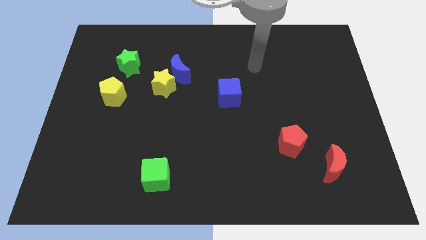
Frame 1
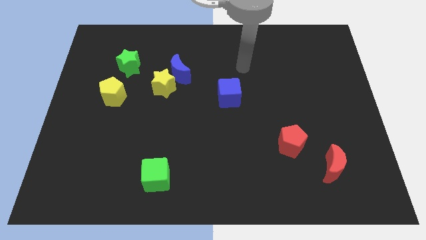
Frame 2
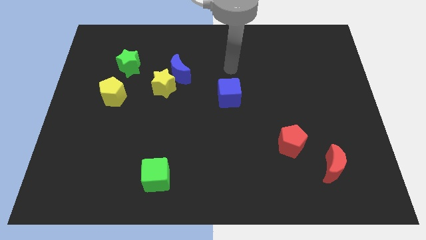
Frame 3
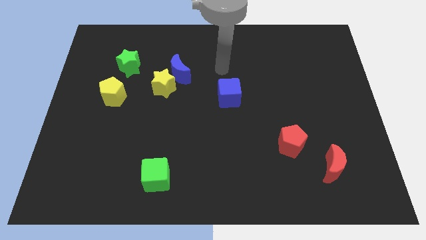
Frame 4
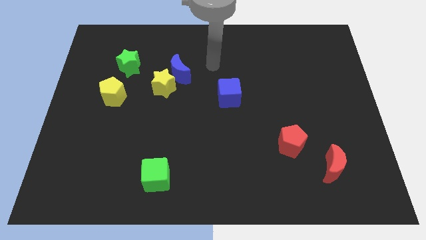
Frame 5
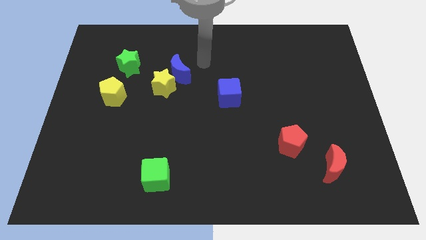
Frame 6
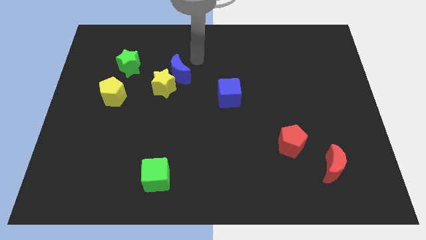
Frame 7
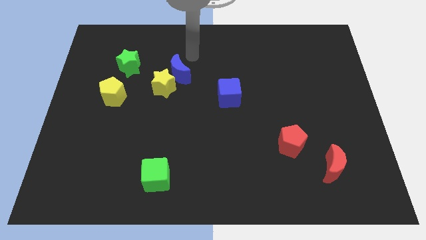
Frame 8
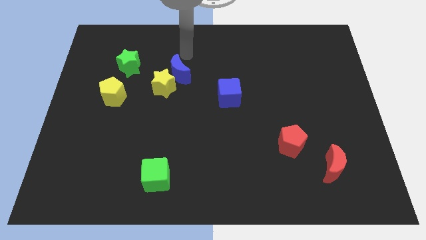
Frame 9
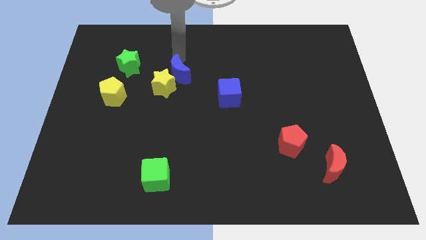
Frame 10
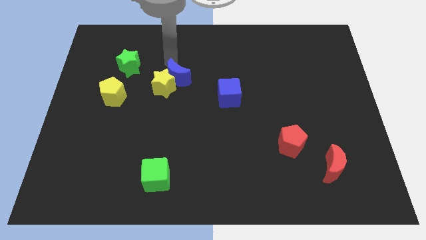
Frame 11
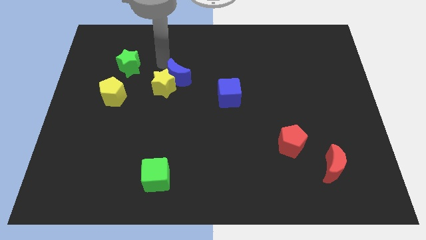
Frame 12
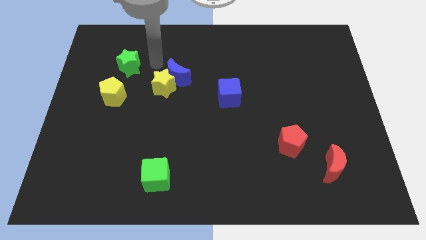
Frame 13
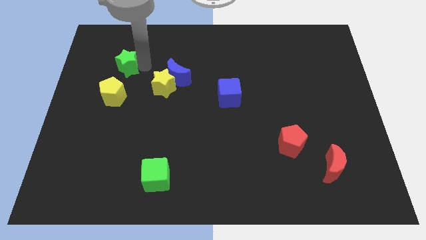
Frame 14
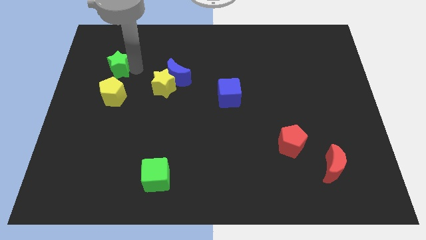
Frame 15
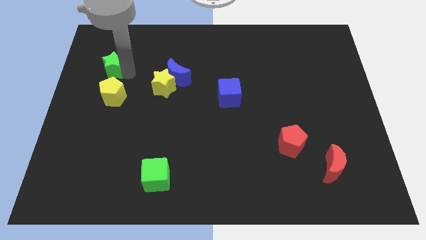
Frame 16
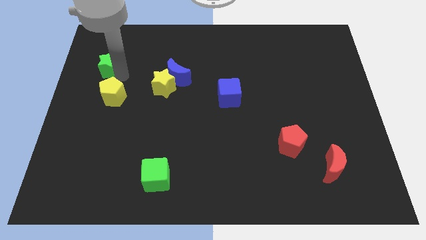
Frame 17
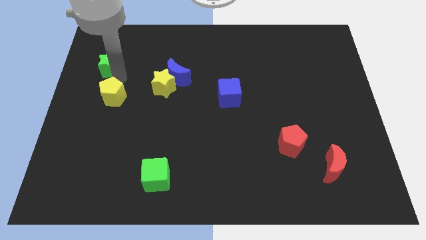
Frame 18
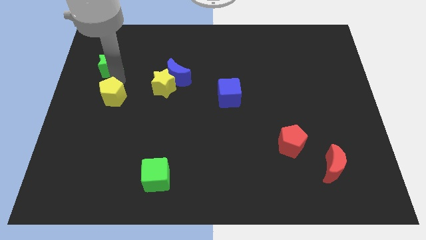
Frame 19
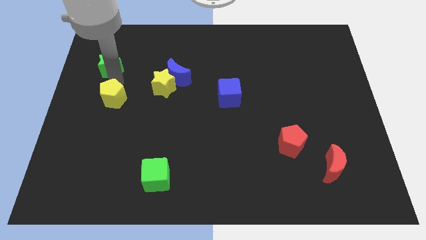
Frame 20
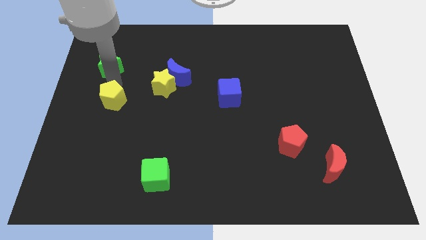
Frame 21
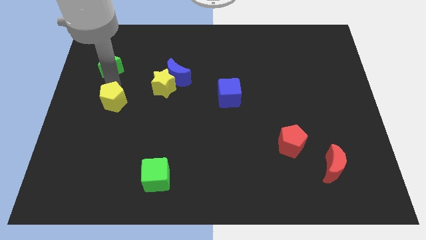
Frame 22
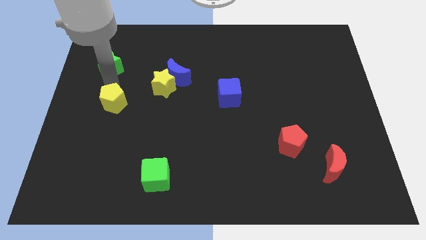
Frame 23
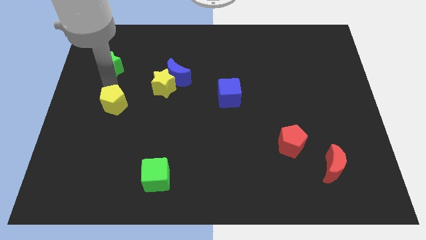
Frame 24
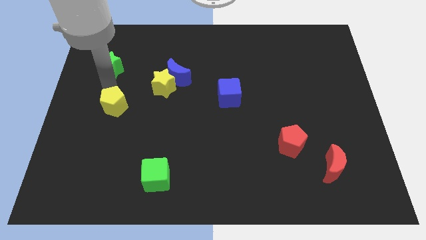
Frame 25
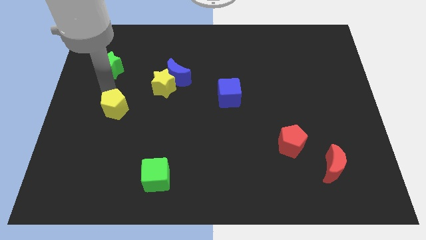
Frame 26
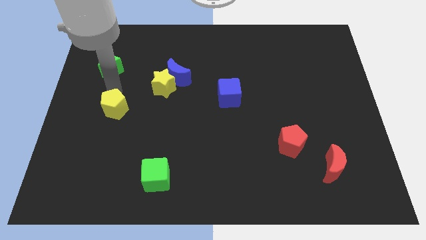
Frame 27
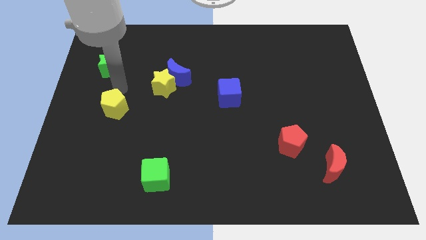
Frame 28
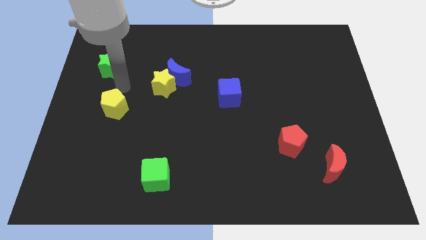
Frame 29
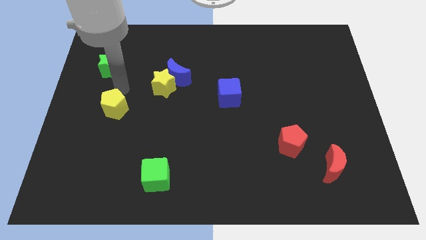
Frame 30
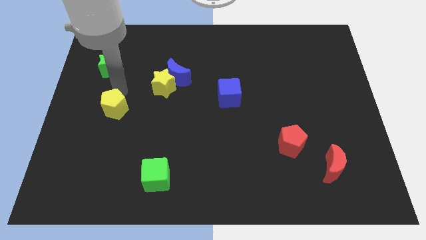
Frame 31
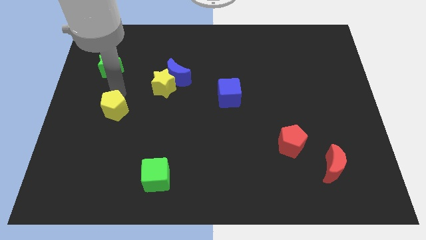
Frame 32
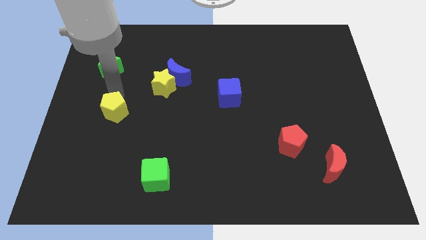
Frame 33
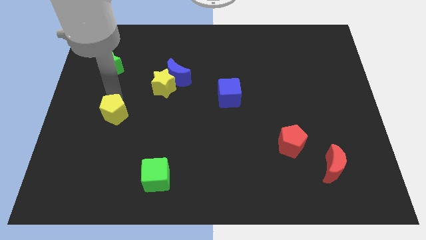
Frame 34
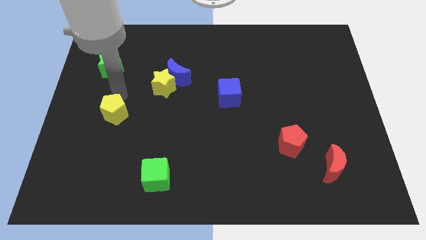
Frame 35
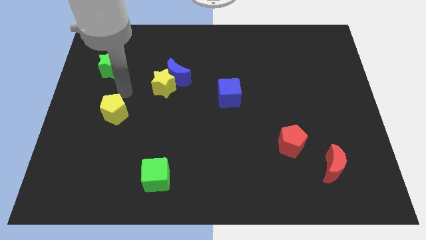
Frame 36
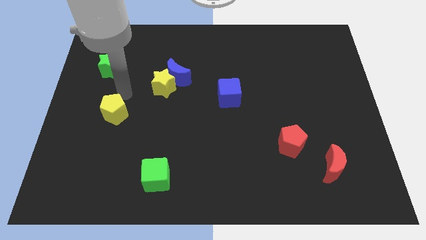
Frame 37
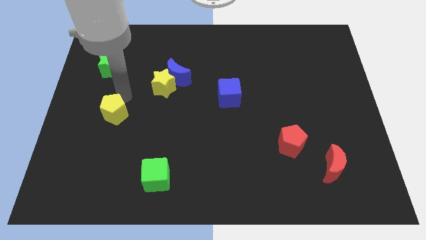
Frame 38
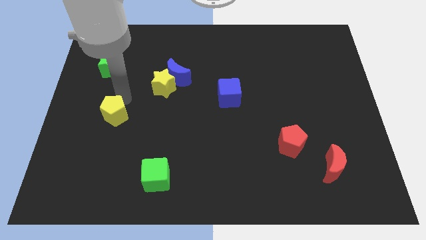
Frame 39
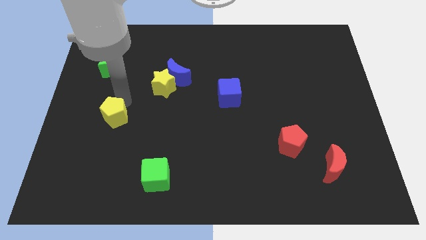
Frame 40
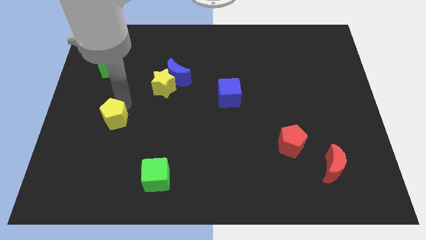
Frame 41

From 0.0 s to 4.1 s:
push the yellow pentagon down a little bit

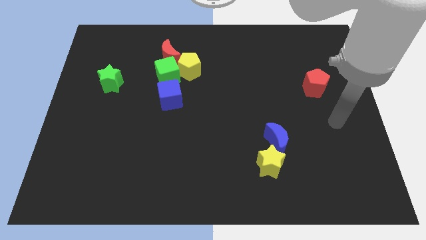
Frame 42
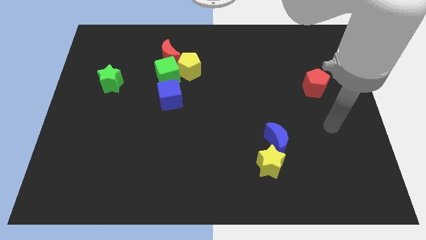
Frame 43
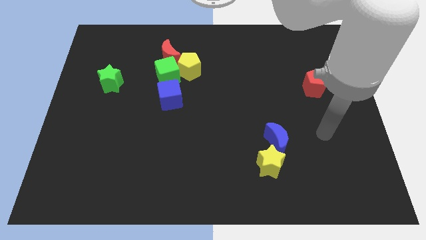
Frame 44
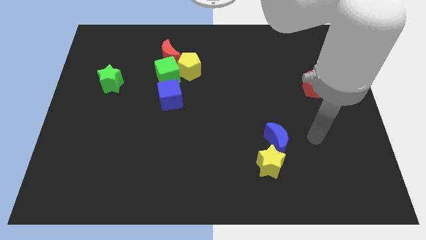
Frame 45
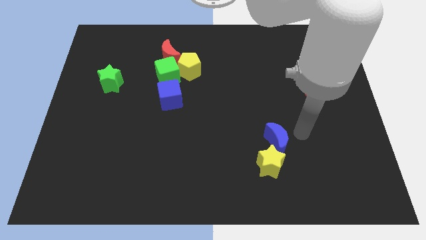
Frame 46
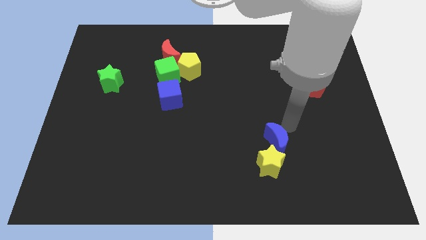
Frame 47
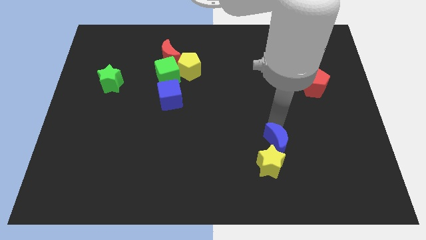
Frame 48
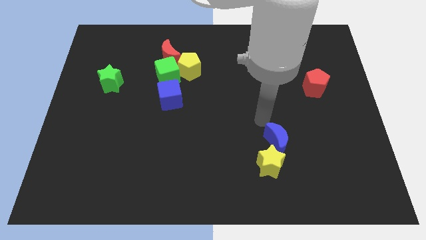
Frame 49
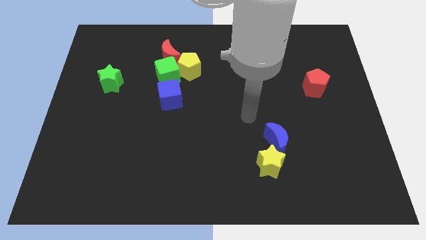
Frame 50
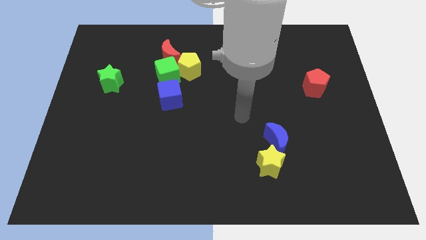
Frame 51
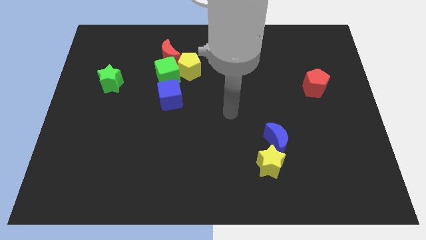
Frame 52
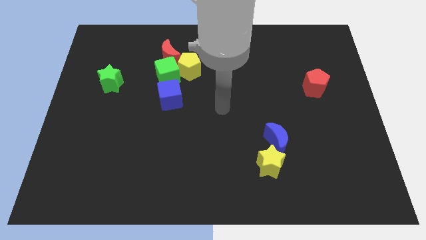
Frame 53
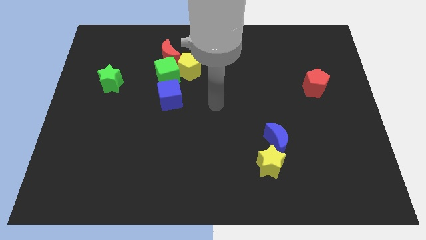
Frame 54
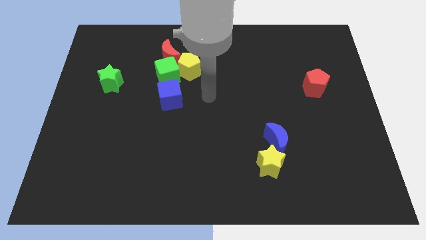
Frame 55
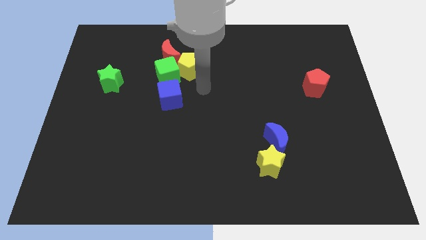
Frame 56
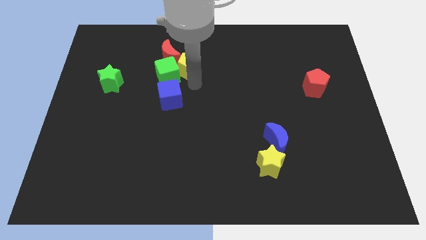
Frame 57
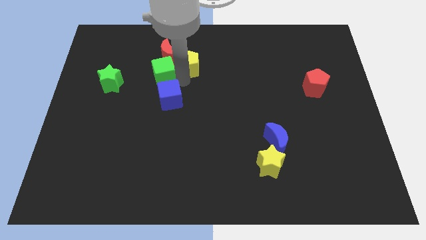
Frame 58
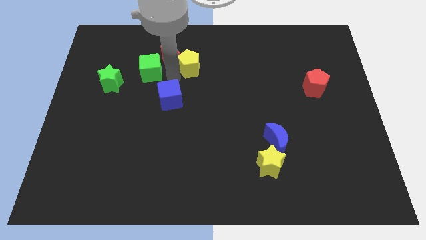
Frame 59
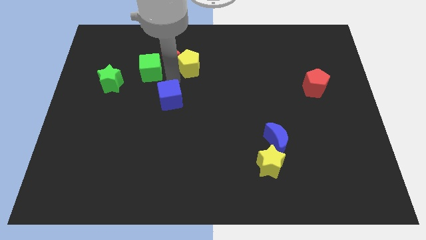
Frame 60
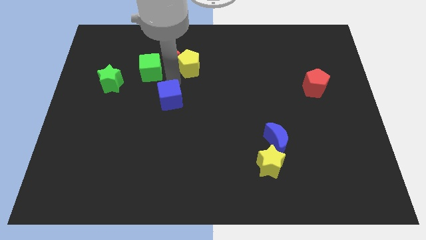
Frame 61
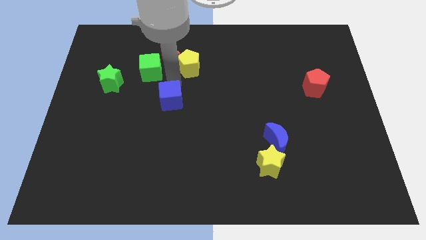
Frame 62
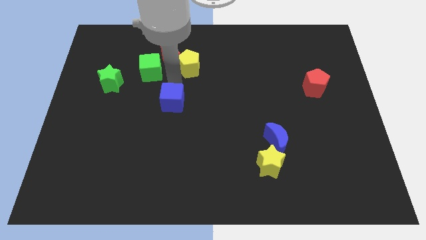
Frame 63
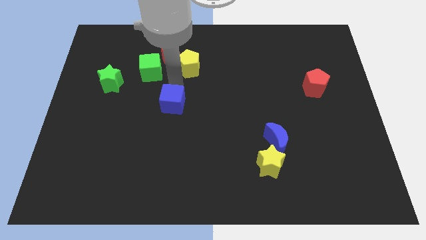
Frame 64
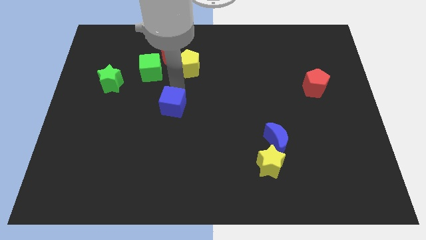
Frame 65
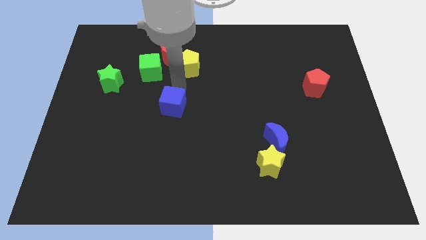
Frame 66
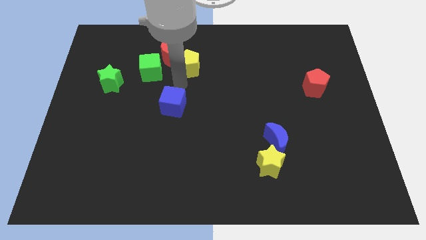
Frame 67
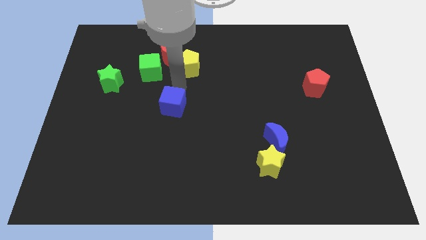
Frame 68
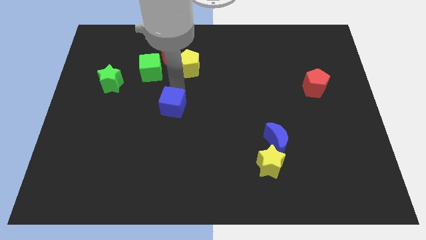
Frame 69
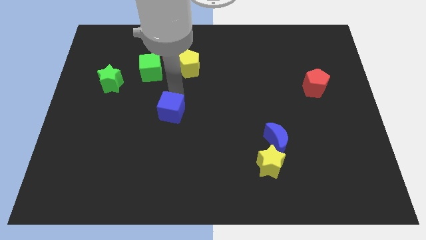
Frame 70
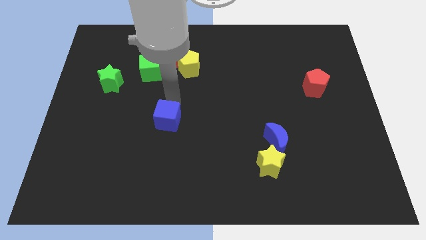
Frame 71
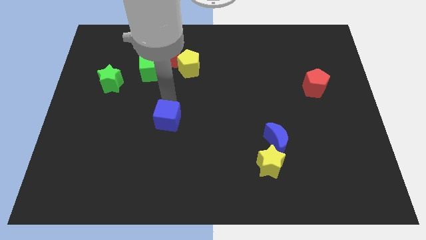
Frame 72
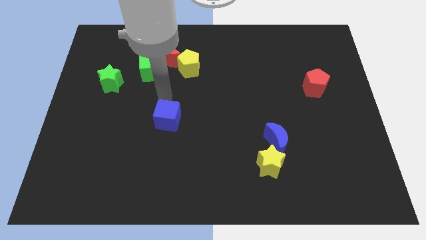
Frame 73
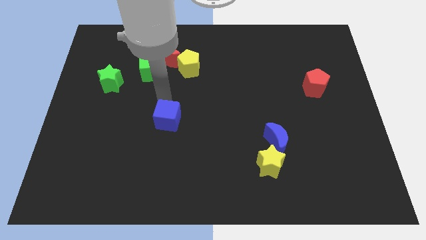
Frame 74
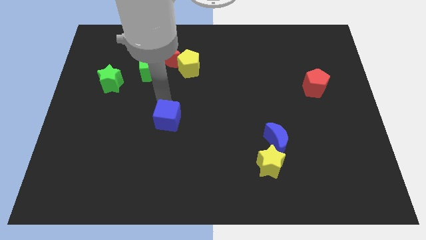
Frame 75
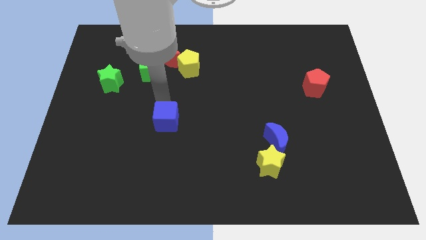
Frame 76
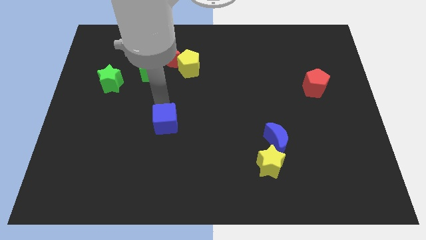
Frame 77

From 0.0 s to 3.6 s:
push the blue cube a bit down

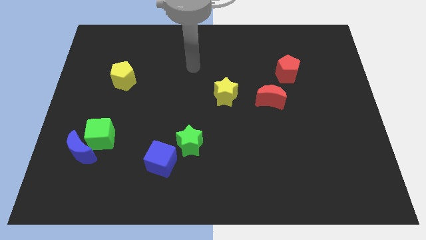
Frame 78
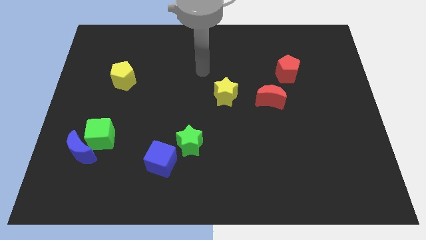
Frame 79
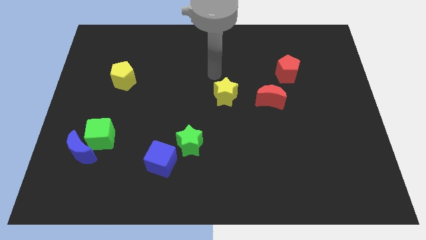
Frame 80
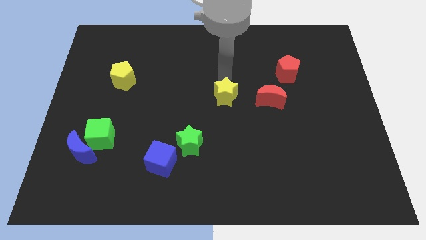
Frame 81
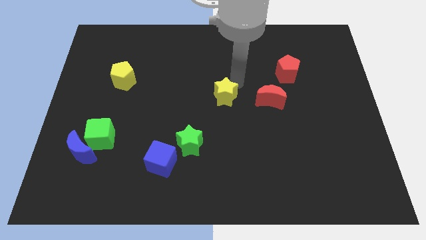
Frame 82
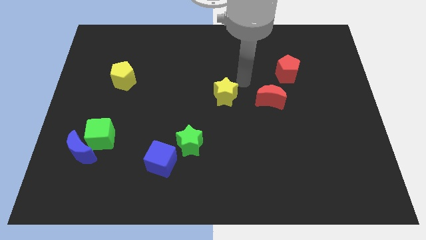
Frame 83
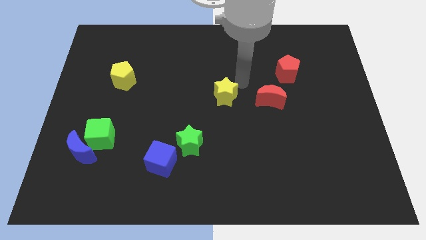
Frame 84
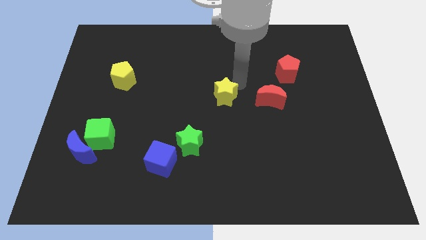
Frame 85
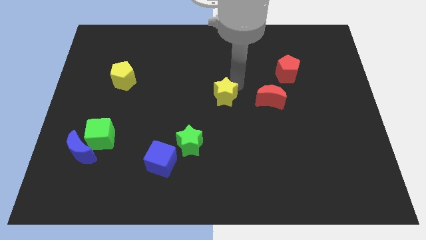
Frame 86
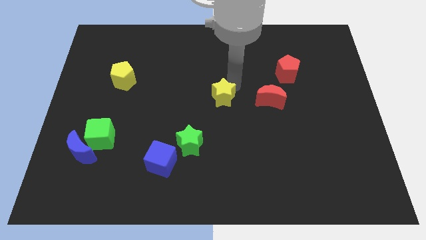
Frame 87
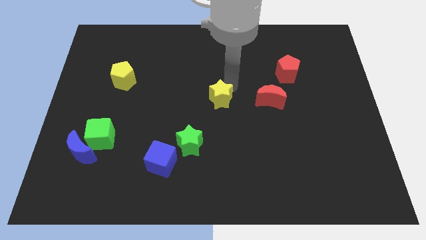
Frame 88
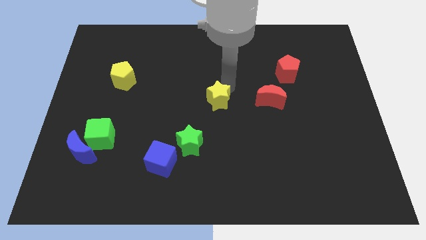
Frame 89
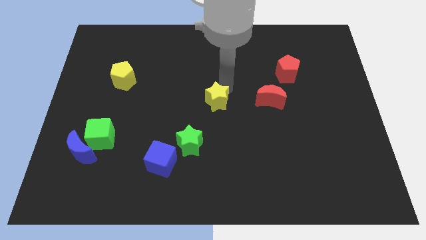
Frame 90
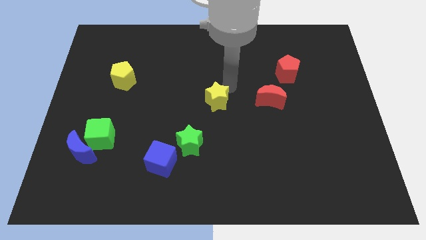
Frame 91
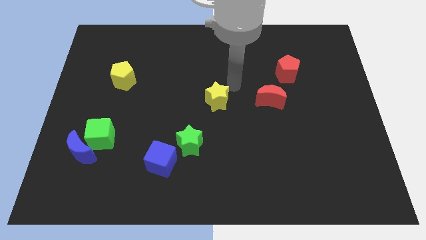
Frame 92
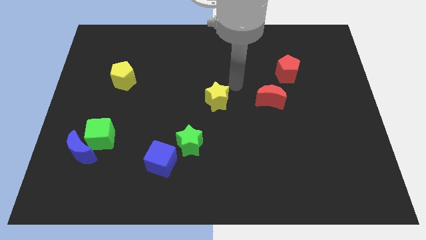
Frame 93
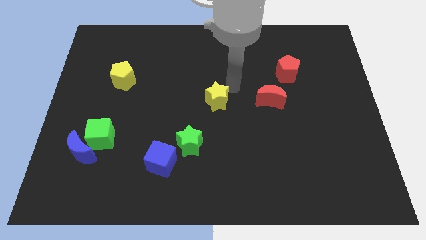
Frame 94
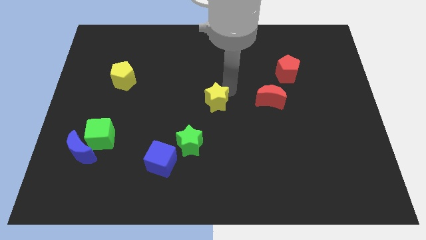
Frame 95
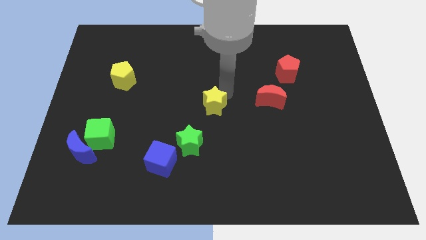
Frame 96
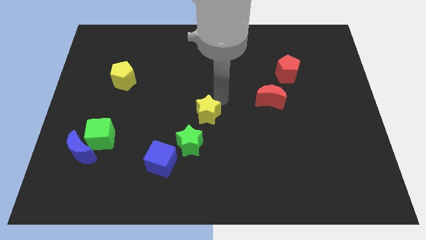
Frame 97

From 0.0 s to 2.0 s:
slightly move the yellow star diagonally down and to the left
